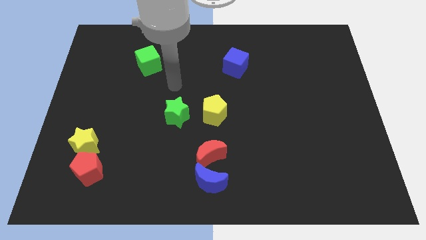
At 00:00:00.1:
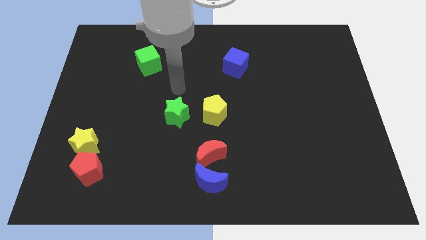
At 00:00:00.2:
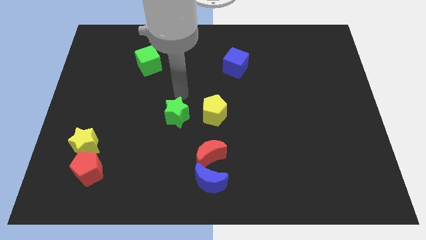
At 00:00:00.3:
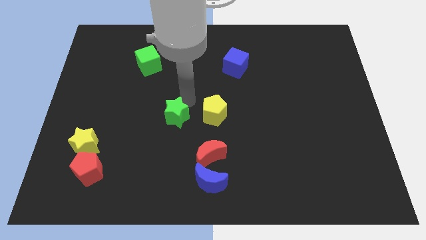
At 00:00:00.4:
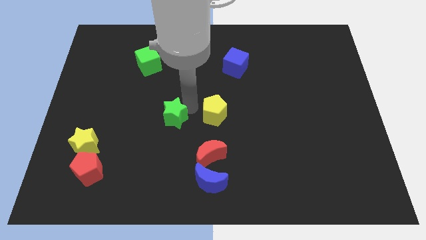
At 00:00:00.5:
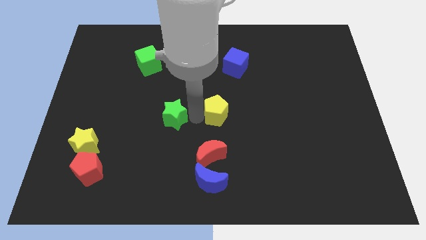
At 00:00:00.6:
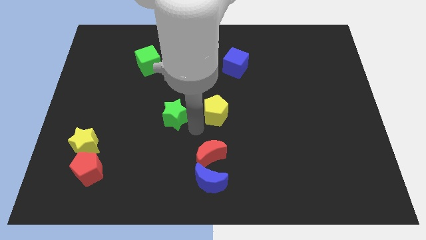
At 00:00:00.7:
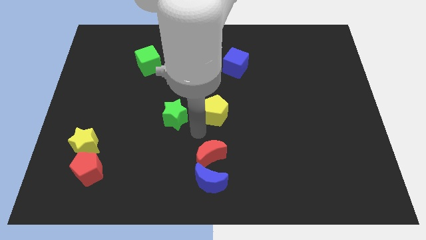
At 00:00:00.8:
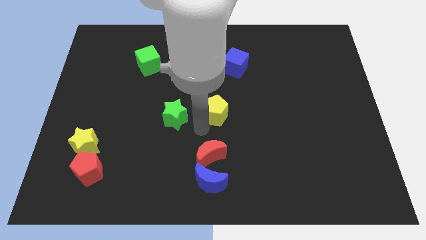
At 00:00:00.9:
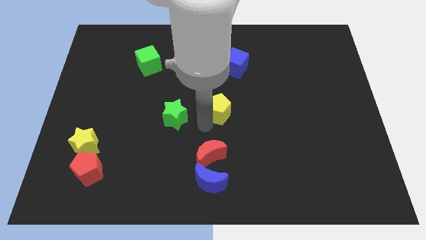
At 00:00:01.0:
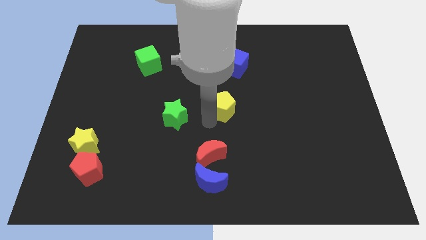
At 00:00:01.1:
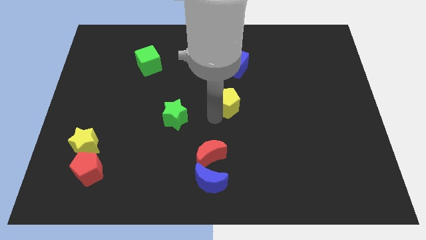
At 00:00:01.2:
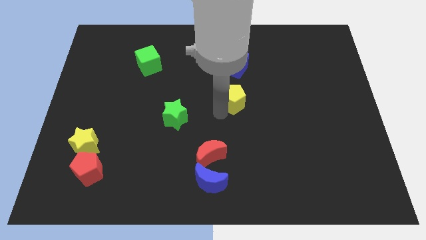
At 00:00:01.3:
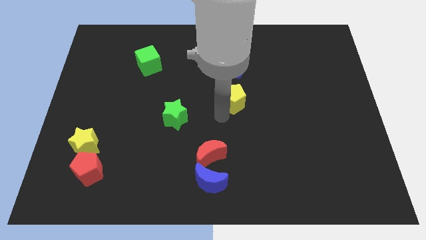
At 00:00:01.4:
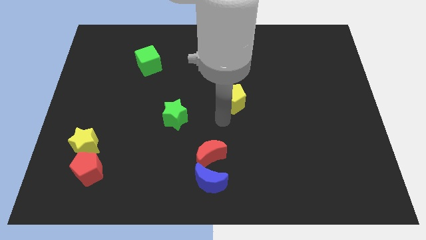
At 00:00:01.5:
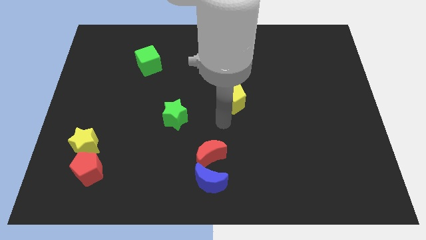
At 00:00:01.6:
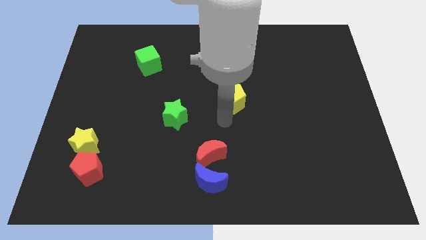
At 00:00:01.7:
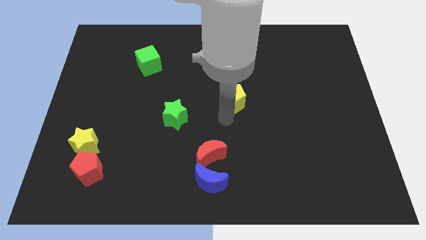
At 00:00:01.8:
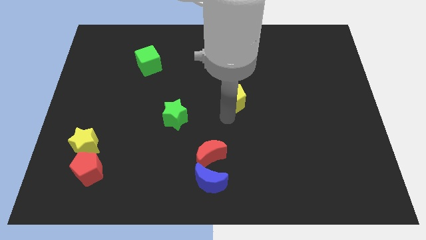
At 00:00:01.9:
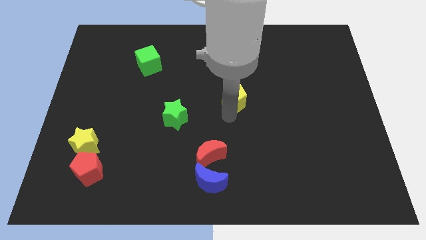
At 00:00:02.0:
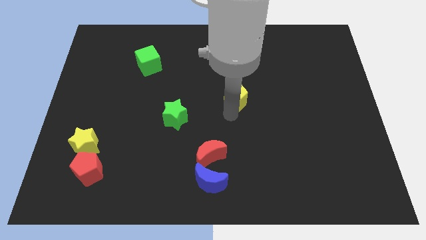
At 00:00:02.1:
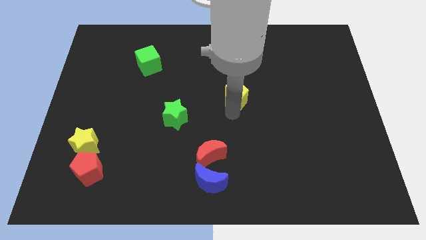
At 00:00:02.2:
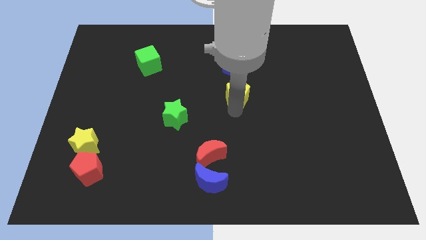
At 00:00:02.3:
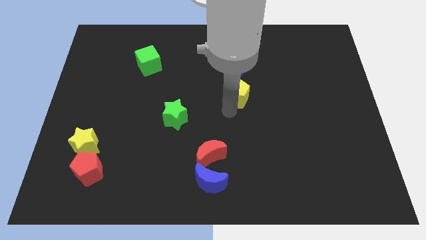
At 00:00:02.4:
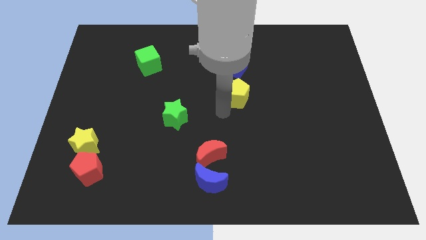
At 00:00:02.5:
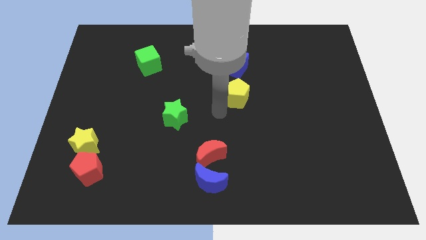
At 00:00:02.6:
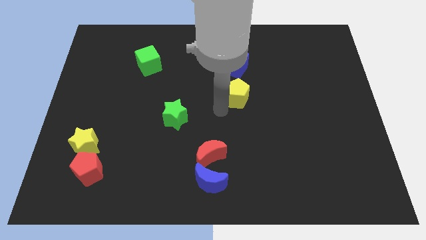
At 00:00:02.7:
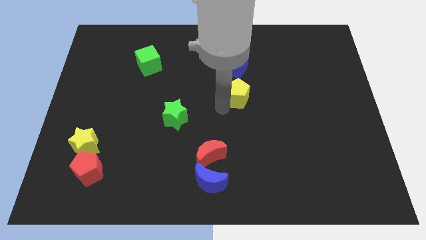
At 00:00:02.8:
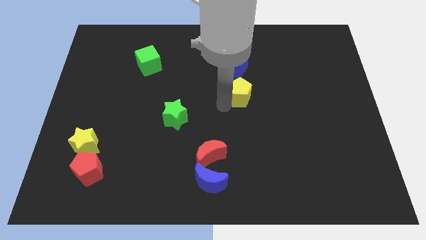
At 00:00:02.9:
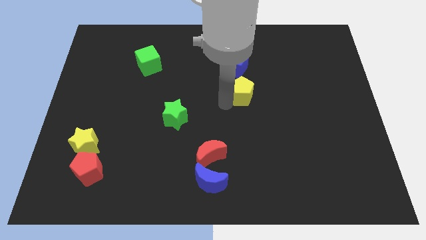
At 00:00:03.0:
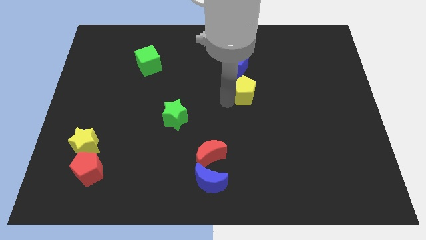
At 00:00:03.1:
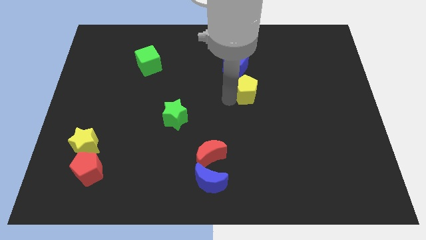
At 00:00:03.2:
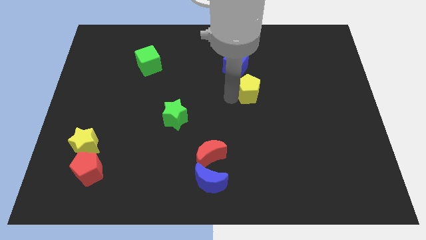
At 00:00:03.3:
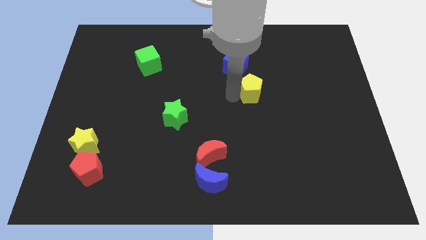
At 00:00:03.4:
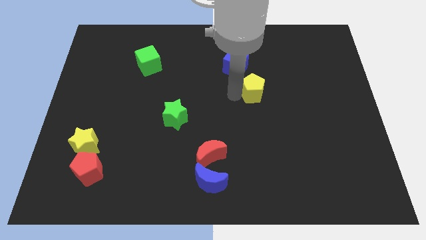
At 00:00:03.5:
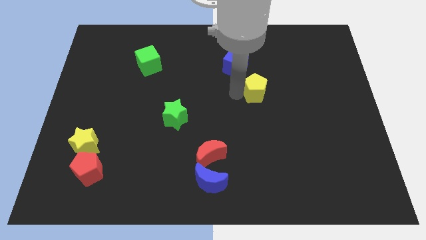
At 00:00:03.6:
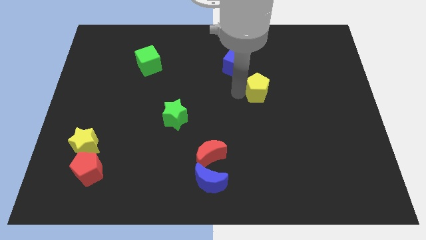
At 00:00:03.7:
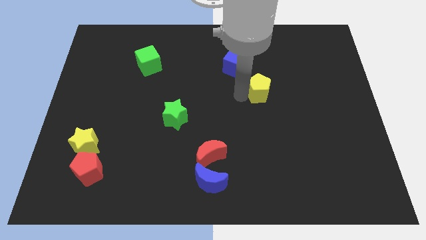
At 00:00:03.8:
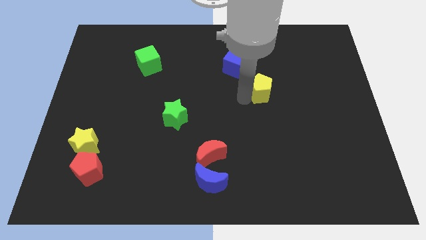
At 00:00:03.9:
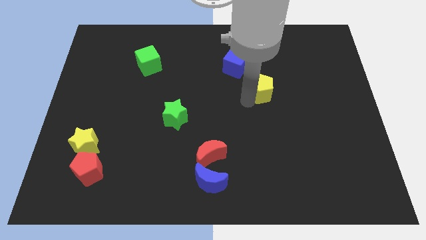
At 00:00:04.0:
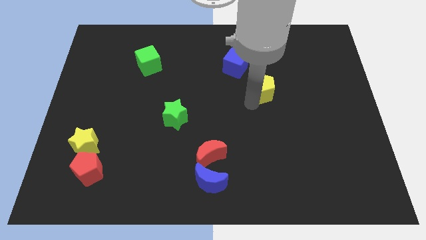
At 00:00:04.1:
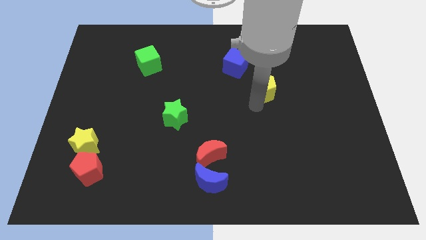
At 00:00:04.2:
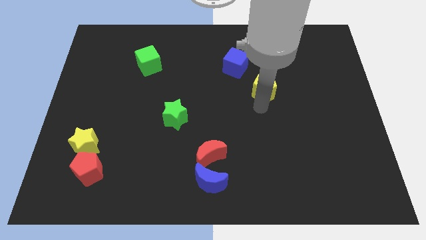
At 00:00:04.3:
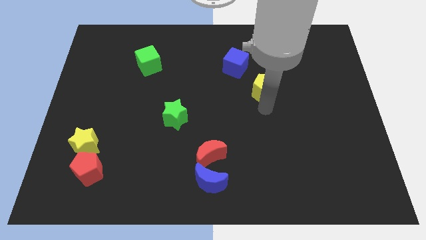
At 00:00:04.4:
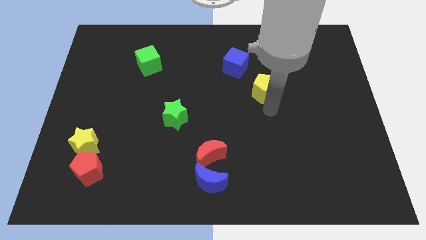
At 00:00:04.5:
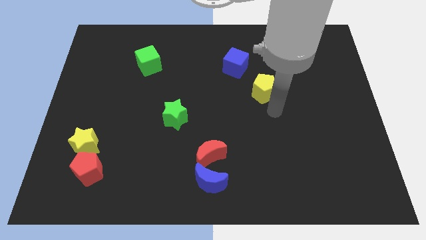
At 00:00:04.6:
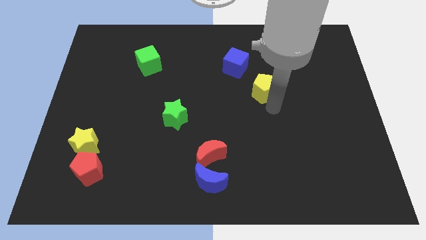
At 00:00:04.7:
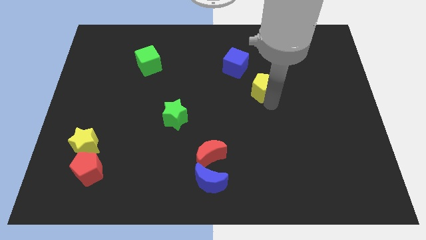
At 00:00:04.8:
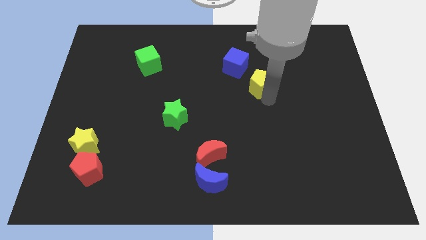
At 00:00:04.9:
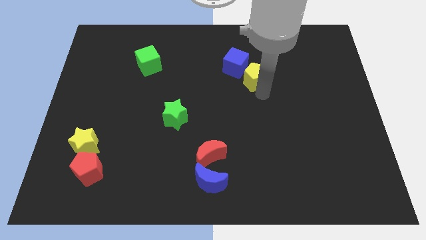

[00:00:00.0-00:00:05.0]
push the yellow pentagon right of the blue cube

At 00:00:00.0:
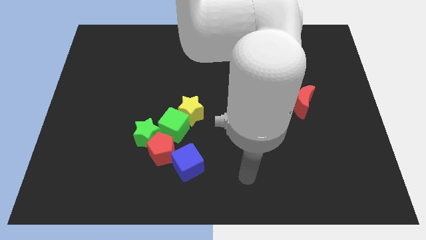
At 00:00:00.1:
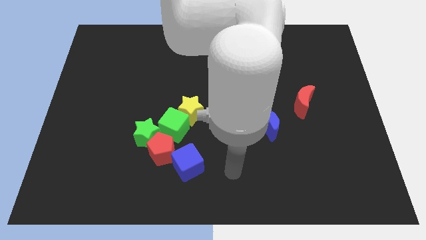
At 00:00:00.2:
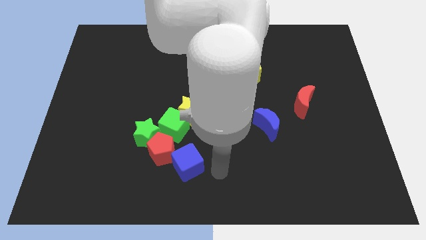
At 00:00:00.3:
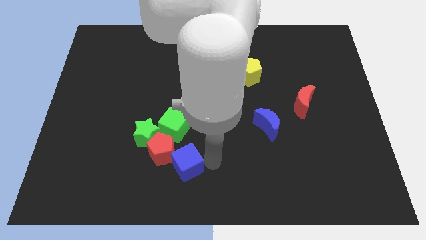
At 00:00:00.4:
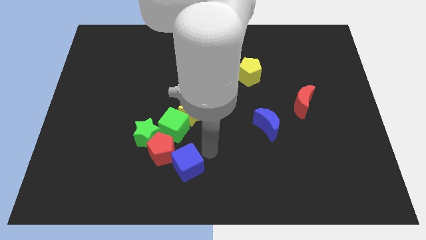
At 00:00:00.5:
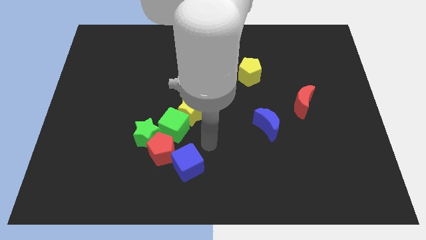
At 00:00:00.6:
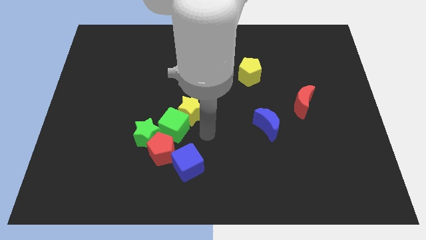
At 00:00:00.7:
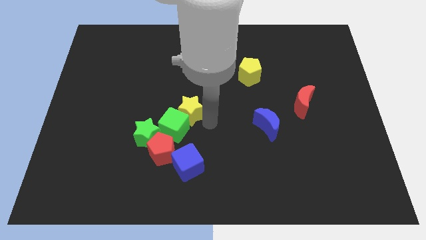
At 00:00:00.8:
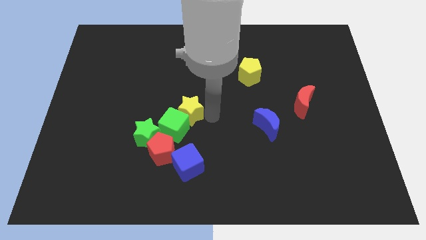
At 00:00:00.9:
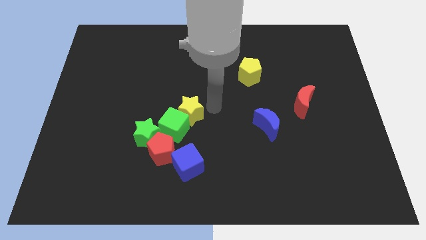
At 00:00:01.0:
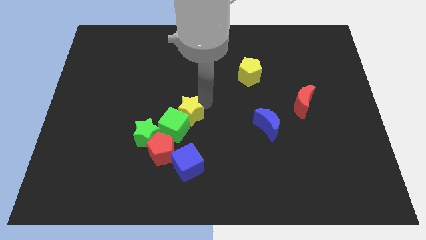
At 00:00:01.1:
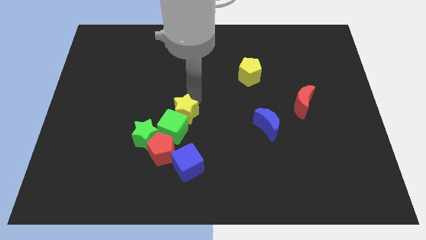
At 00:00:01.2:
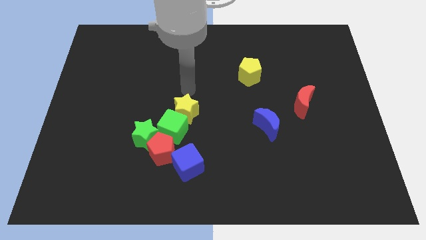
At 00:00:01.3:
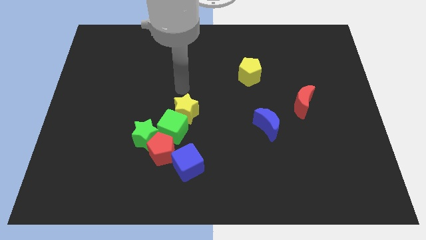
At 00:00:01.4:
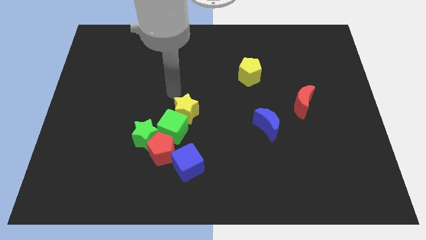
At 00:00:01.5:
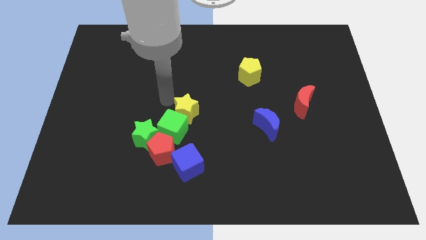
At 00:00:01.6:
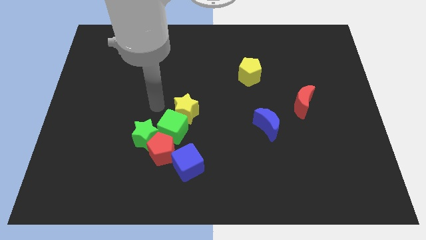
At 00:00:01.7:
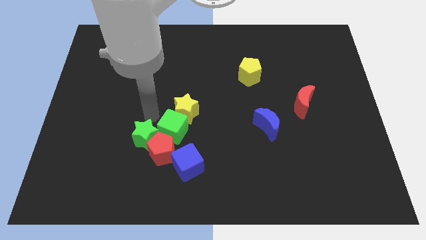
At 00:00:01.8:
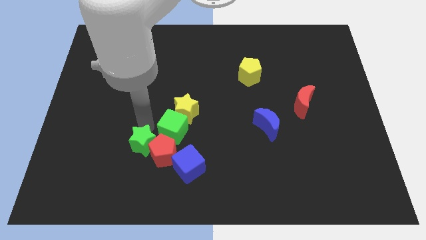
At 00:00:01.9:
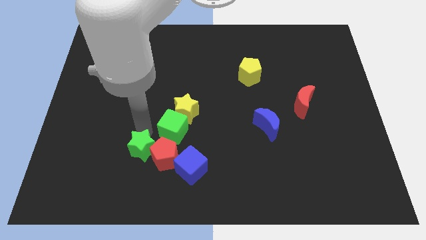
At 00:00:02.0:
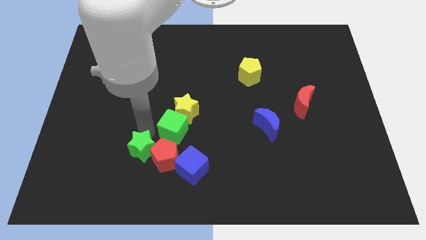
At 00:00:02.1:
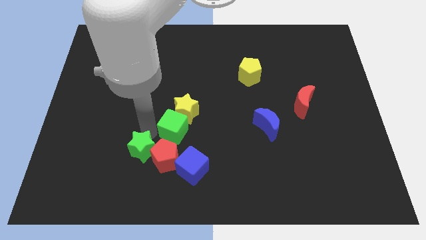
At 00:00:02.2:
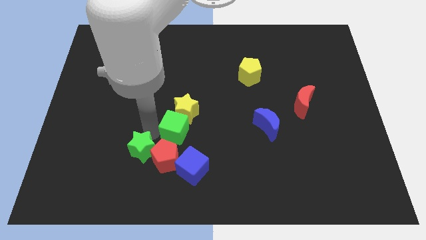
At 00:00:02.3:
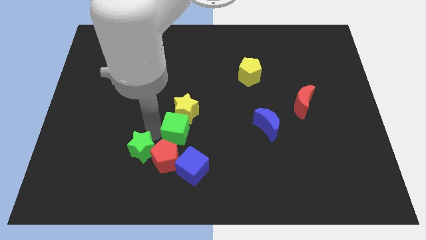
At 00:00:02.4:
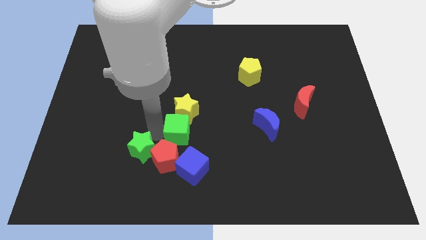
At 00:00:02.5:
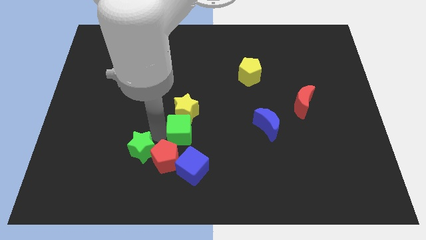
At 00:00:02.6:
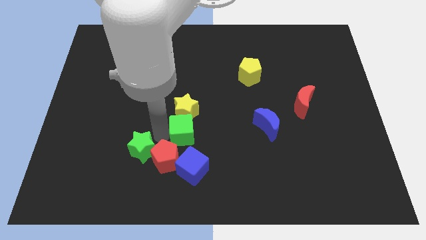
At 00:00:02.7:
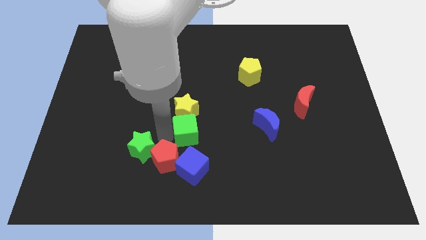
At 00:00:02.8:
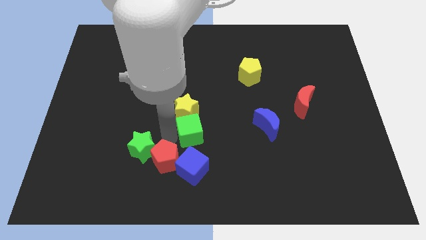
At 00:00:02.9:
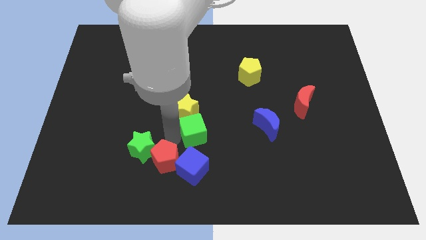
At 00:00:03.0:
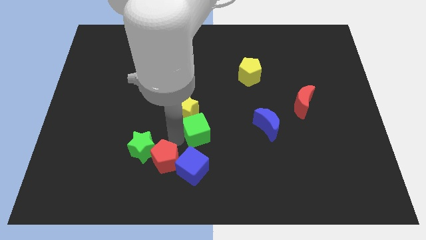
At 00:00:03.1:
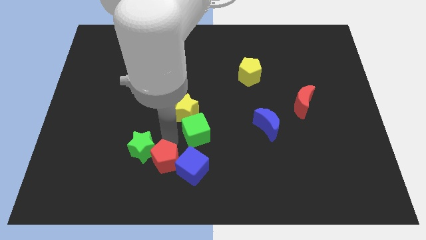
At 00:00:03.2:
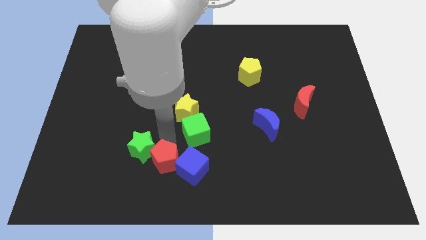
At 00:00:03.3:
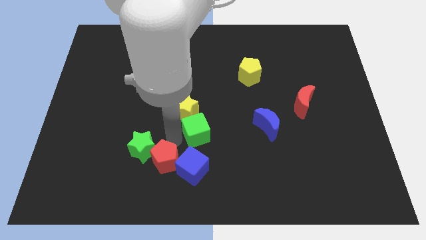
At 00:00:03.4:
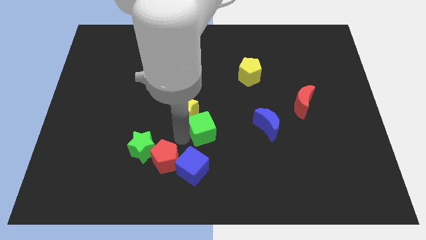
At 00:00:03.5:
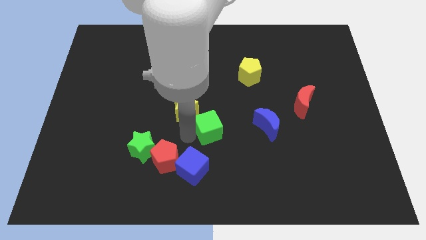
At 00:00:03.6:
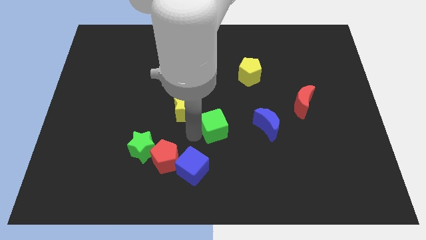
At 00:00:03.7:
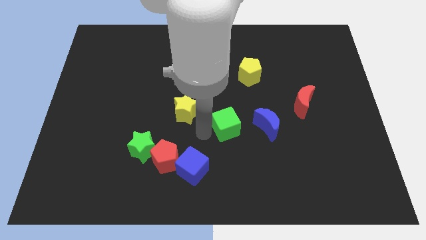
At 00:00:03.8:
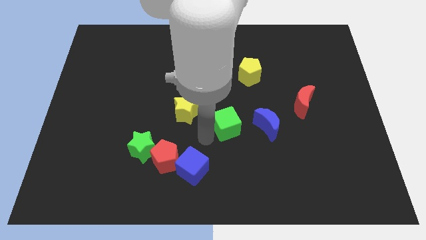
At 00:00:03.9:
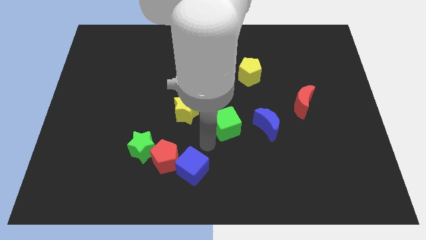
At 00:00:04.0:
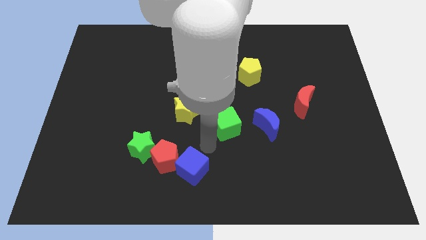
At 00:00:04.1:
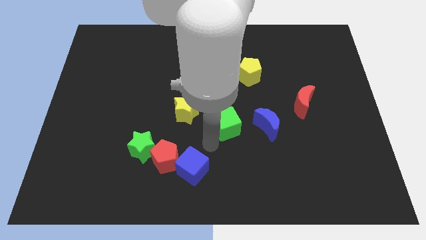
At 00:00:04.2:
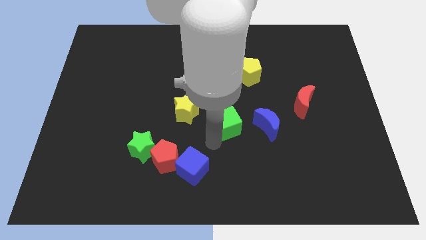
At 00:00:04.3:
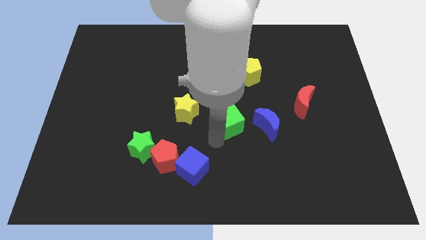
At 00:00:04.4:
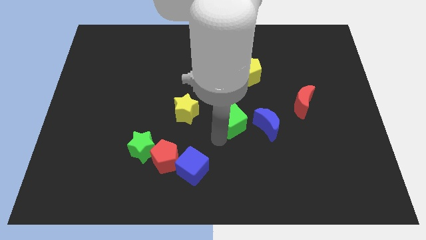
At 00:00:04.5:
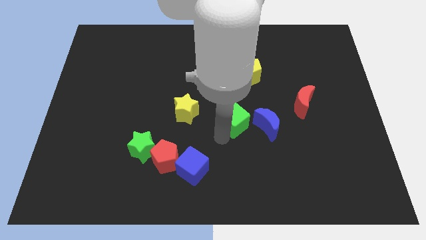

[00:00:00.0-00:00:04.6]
push the green cube to the top left of the blue moon
